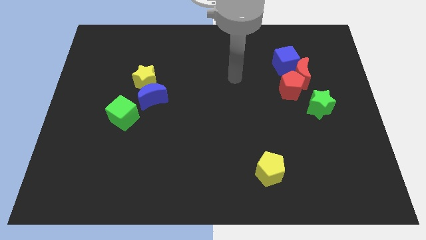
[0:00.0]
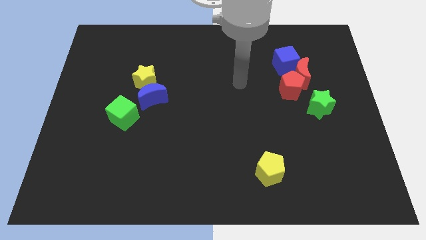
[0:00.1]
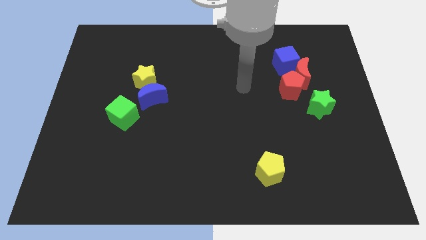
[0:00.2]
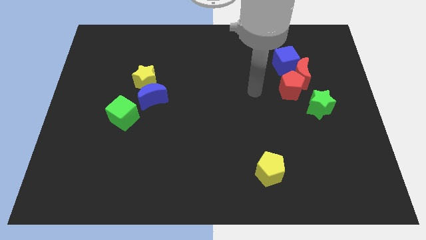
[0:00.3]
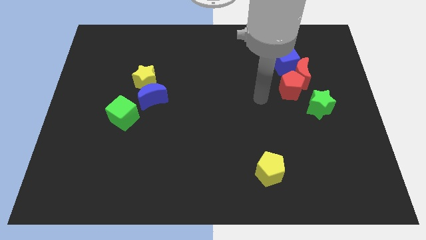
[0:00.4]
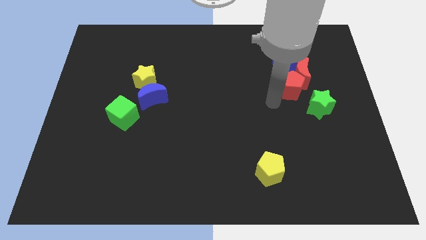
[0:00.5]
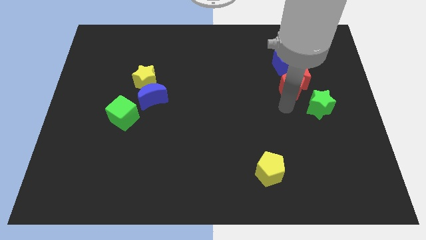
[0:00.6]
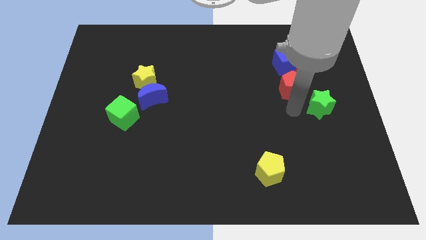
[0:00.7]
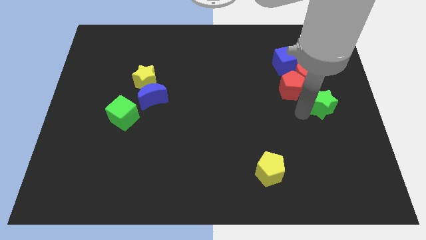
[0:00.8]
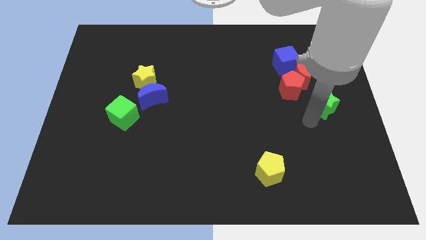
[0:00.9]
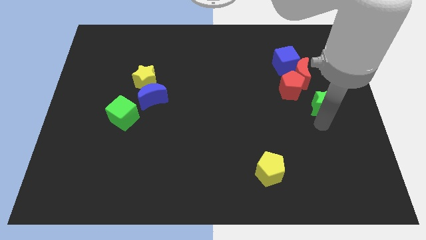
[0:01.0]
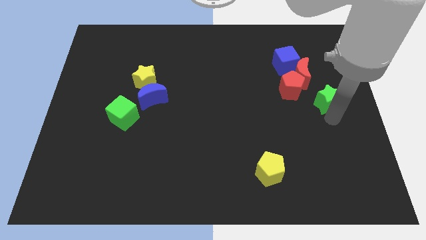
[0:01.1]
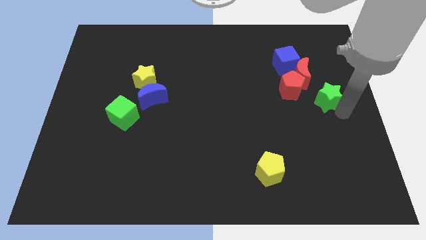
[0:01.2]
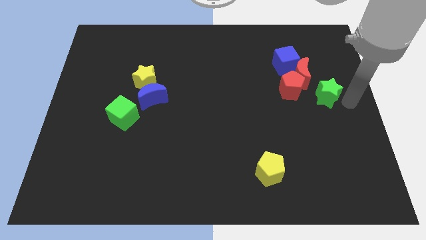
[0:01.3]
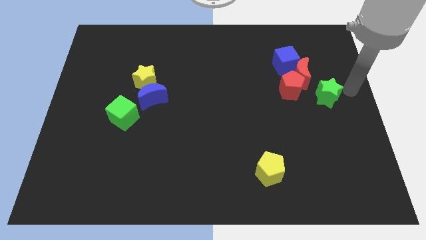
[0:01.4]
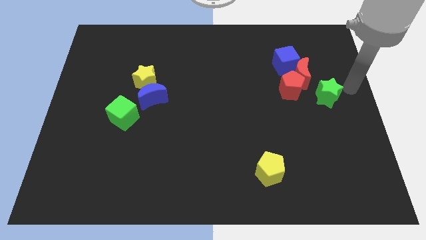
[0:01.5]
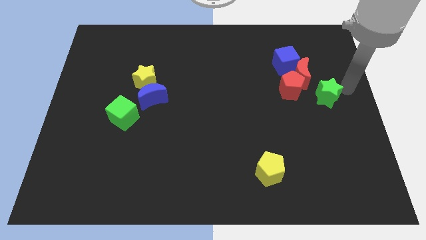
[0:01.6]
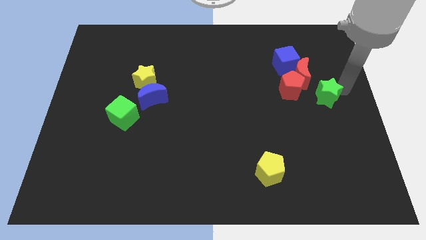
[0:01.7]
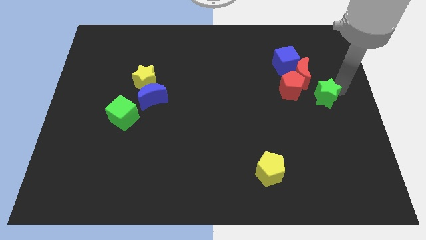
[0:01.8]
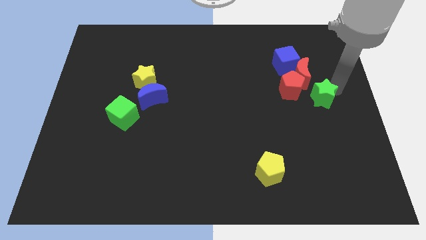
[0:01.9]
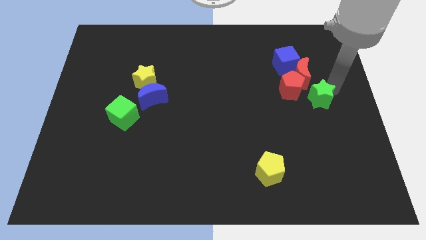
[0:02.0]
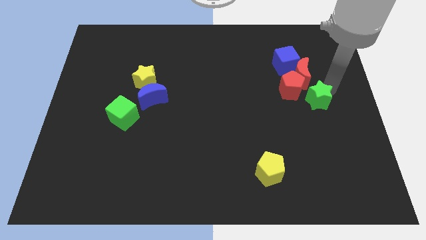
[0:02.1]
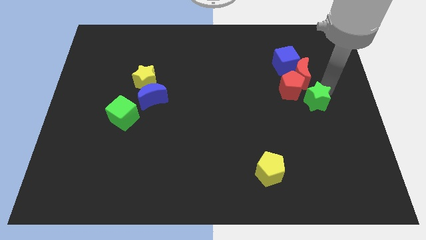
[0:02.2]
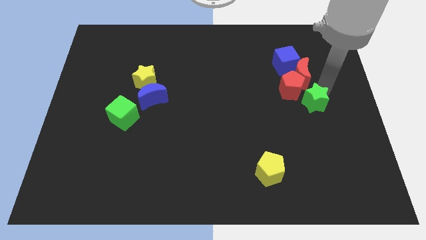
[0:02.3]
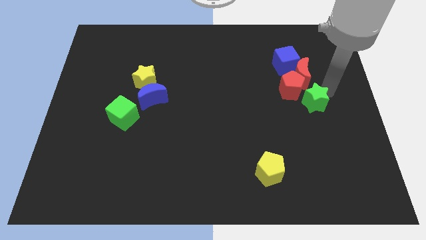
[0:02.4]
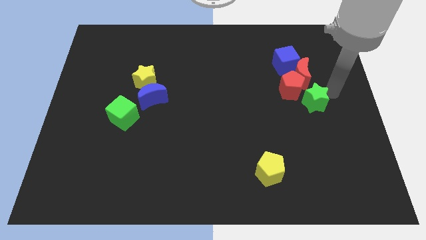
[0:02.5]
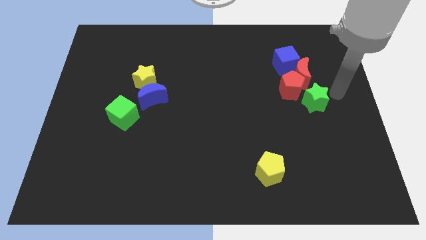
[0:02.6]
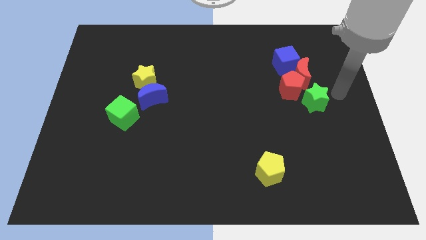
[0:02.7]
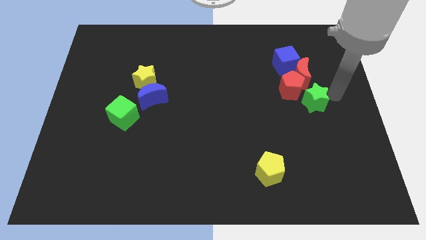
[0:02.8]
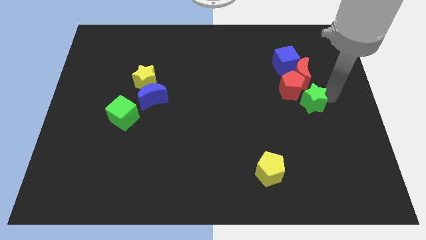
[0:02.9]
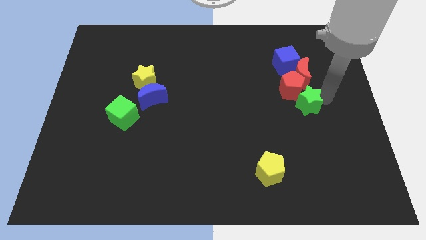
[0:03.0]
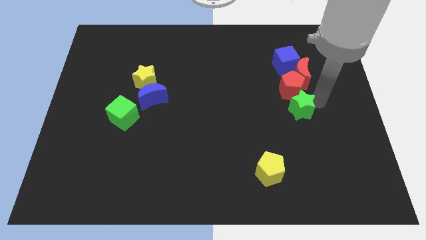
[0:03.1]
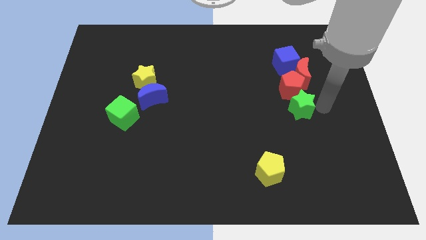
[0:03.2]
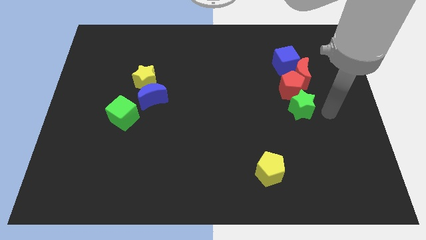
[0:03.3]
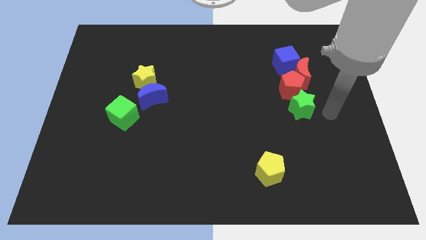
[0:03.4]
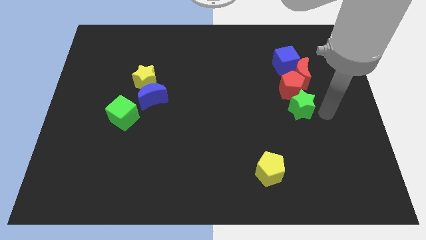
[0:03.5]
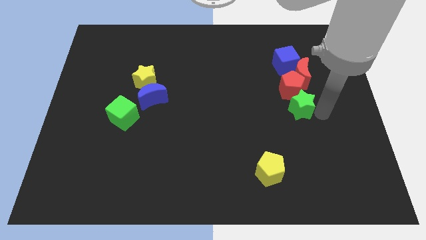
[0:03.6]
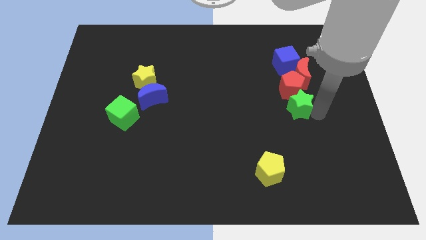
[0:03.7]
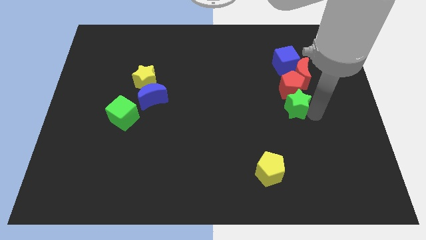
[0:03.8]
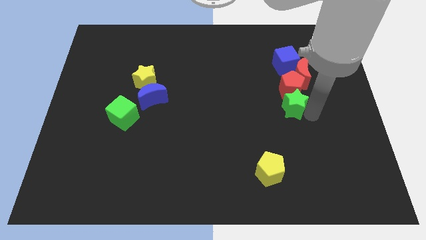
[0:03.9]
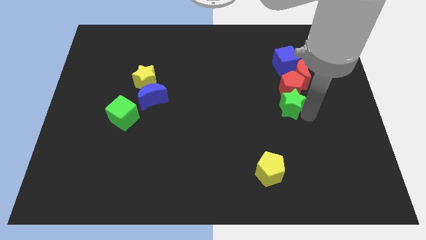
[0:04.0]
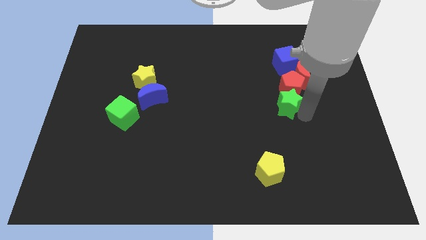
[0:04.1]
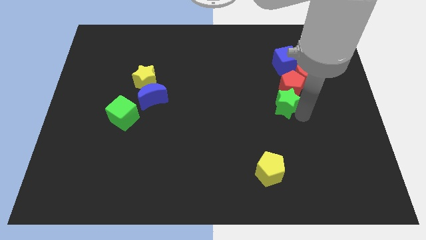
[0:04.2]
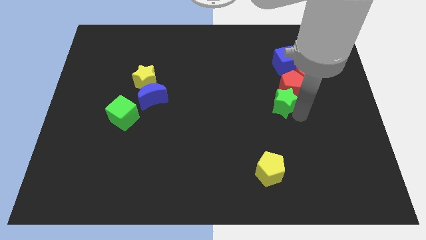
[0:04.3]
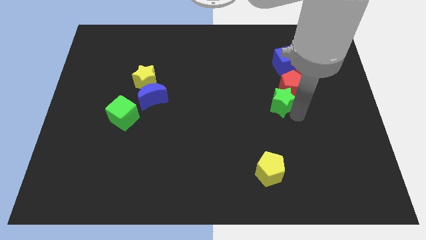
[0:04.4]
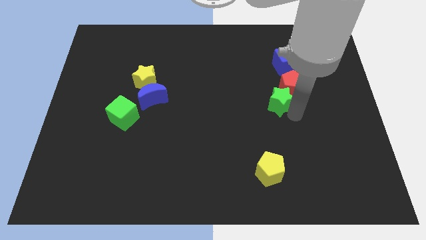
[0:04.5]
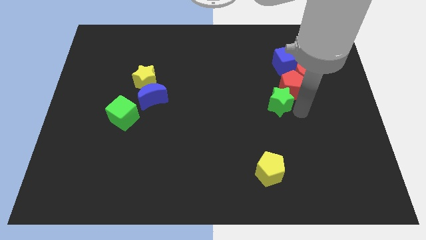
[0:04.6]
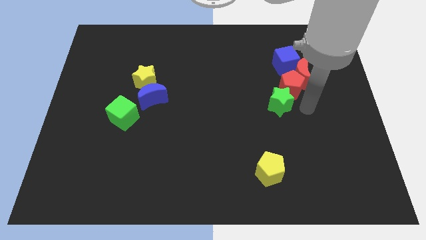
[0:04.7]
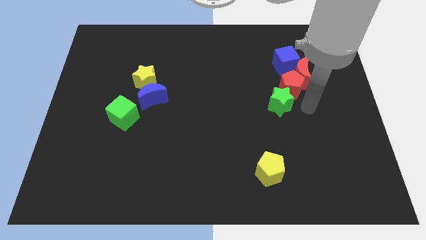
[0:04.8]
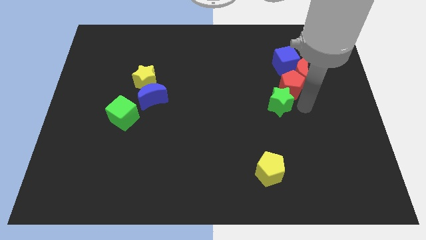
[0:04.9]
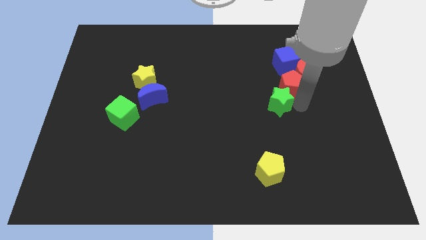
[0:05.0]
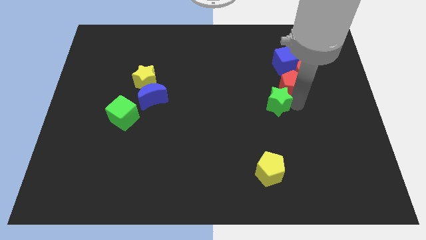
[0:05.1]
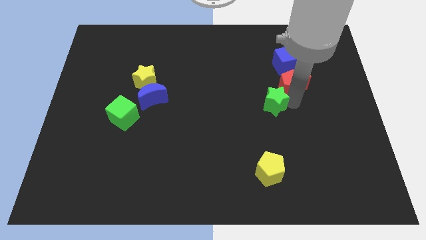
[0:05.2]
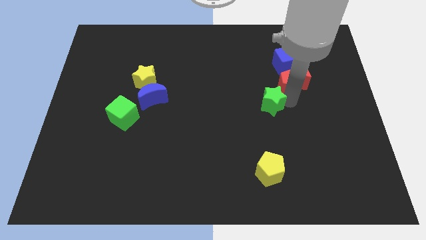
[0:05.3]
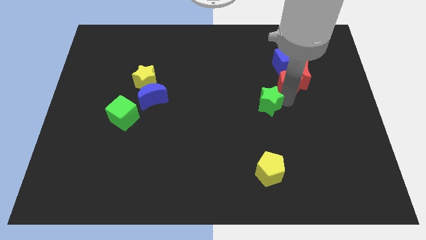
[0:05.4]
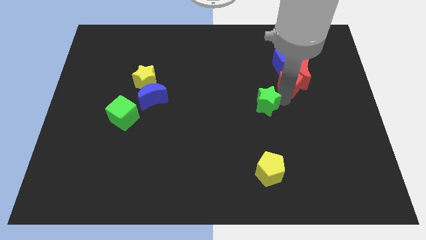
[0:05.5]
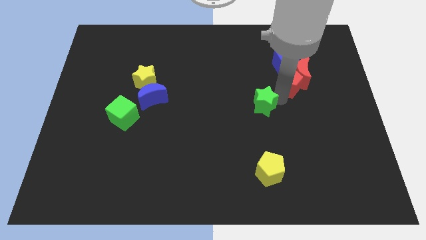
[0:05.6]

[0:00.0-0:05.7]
put the green star to the center of the board

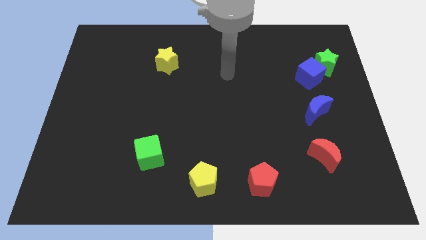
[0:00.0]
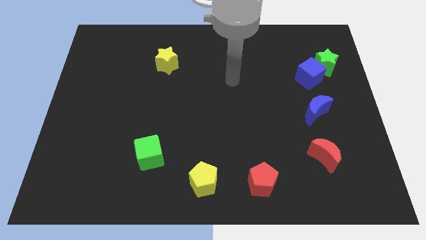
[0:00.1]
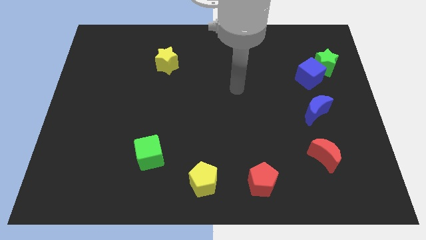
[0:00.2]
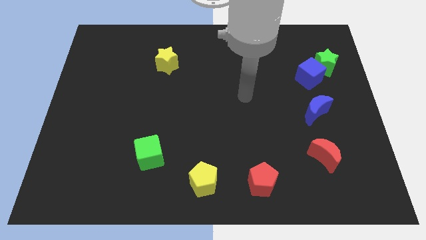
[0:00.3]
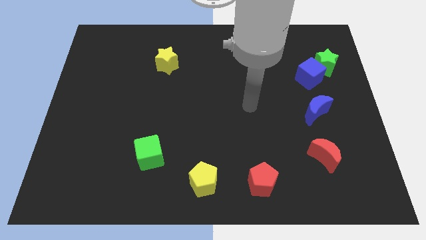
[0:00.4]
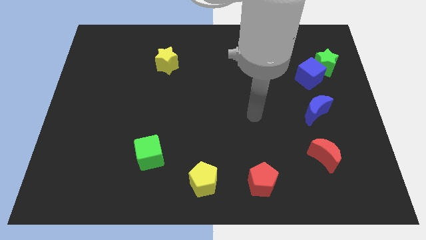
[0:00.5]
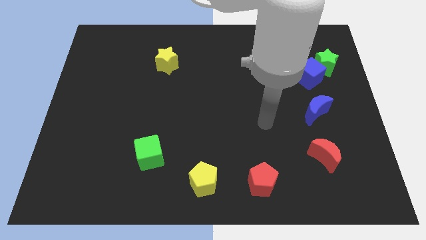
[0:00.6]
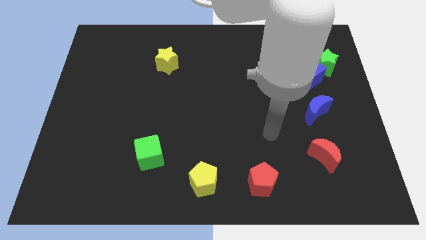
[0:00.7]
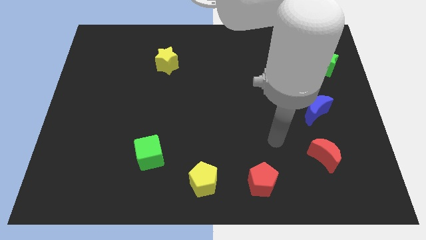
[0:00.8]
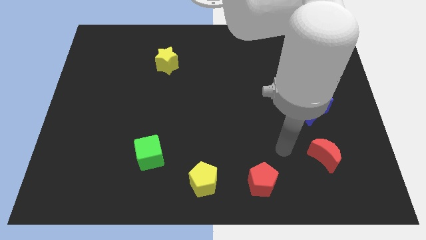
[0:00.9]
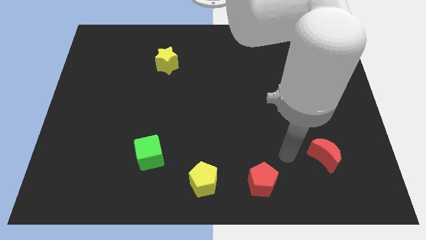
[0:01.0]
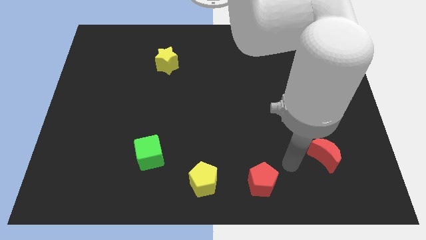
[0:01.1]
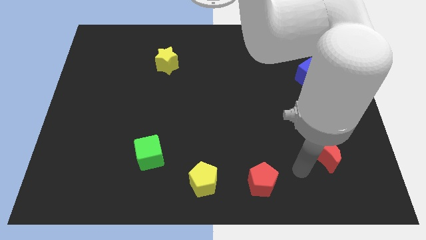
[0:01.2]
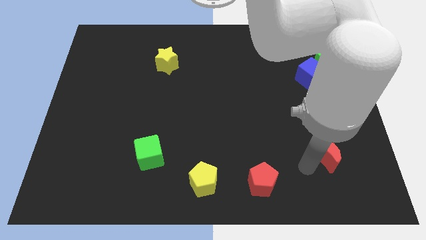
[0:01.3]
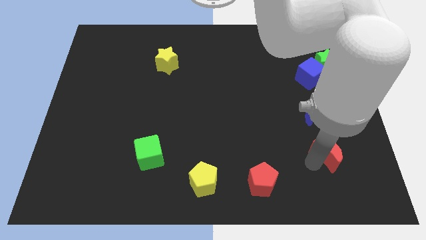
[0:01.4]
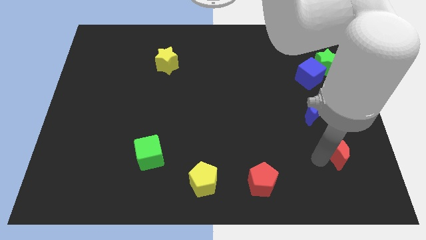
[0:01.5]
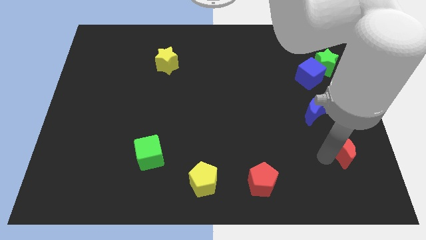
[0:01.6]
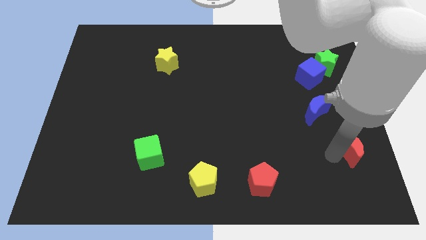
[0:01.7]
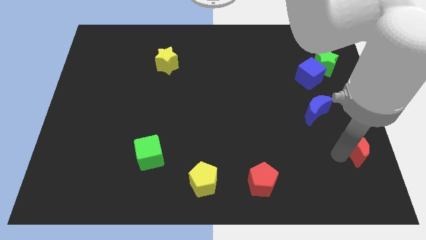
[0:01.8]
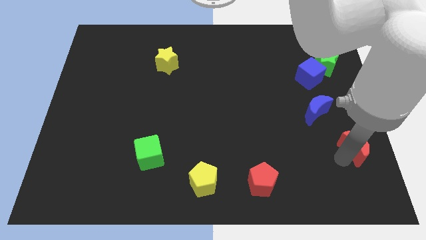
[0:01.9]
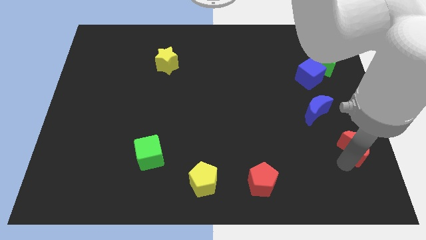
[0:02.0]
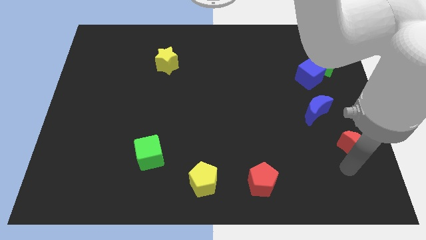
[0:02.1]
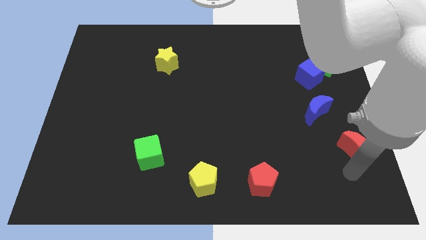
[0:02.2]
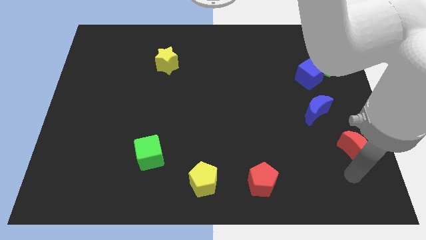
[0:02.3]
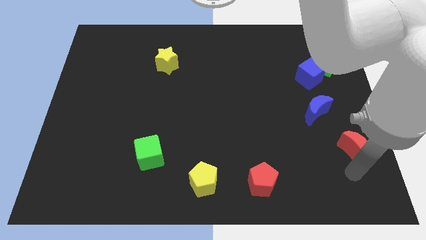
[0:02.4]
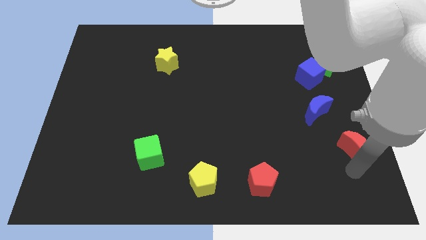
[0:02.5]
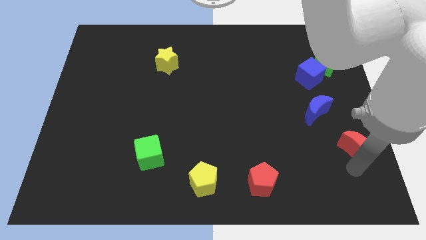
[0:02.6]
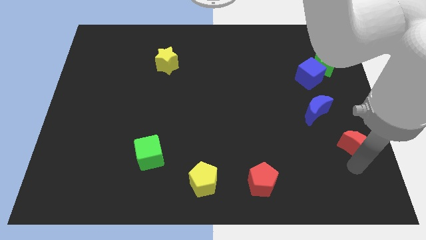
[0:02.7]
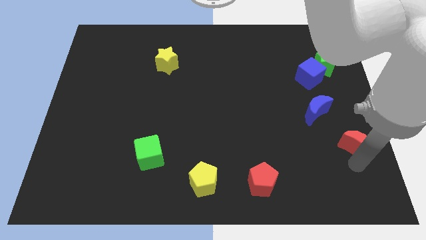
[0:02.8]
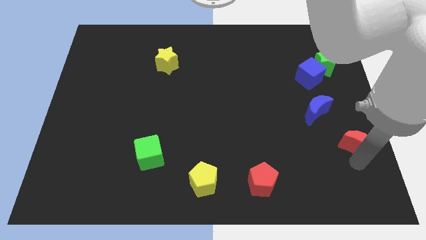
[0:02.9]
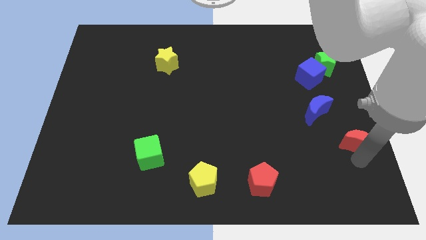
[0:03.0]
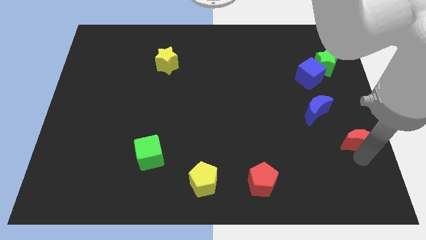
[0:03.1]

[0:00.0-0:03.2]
slide the red moon to the center right
